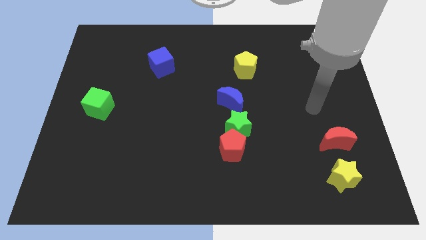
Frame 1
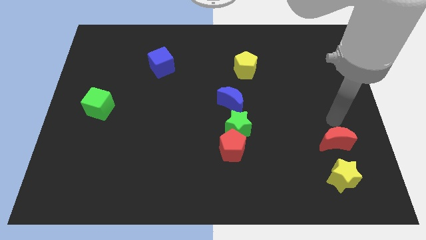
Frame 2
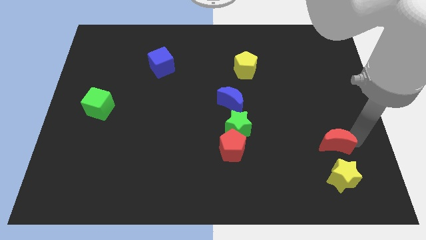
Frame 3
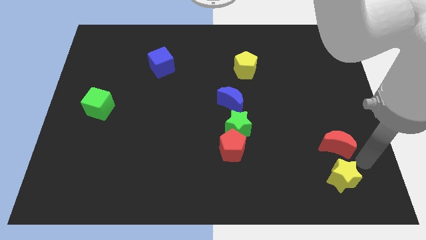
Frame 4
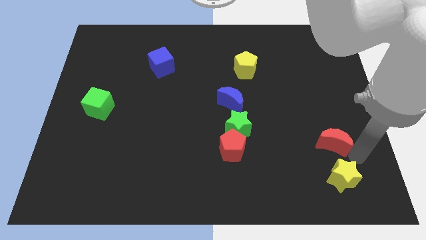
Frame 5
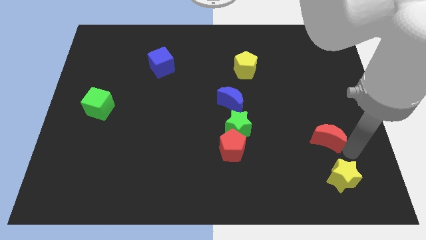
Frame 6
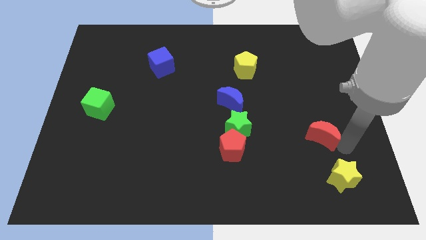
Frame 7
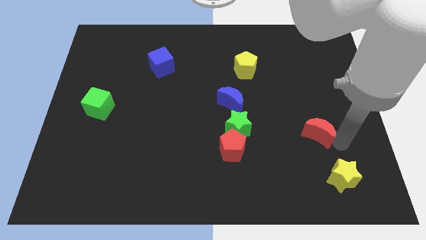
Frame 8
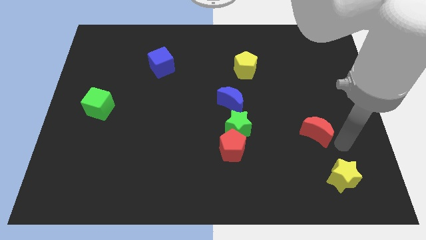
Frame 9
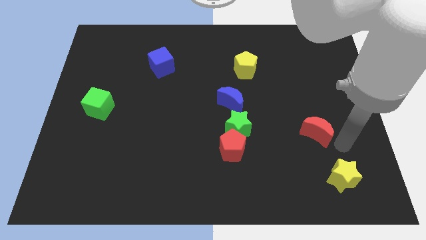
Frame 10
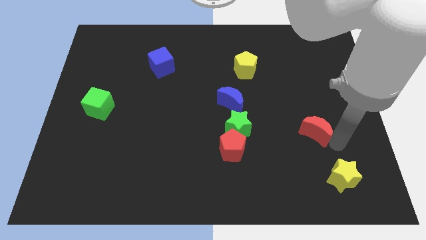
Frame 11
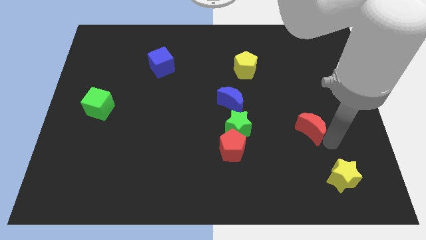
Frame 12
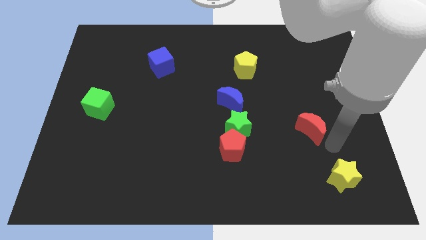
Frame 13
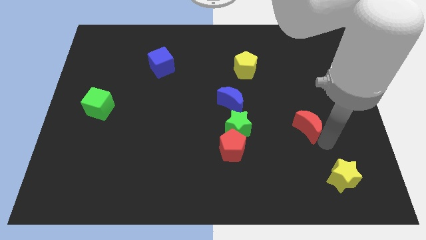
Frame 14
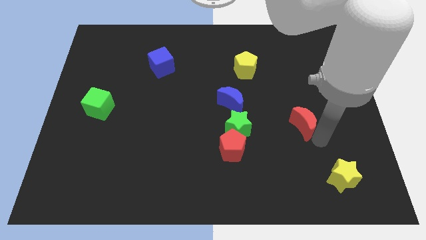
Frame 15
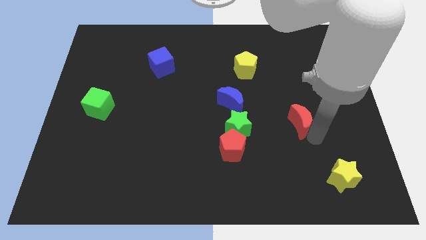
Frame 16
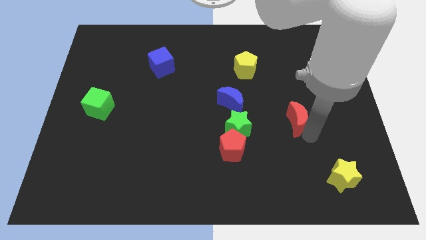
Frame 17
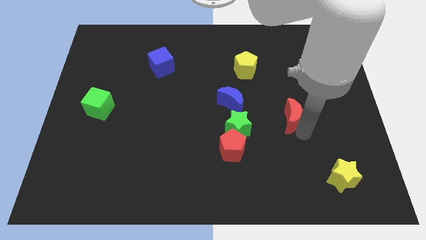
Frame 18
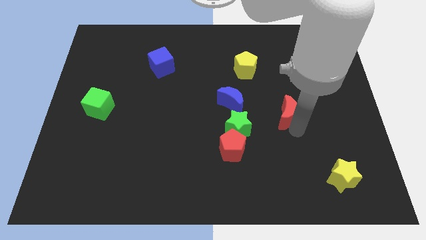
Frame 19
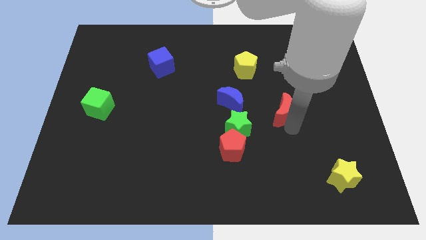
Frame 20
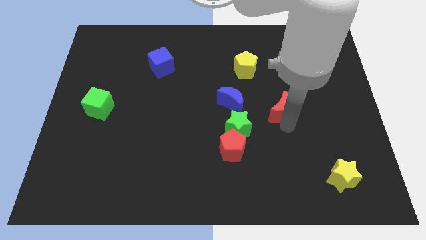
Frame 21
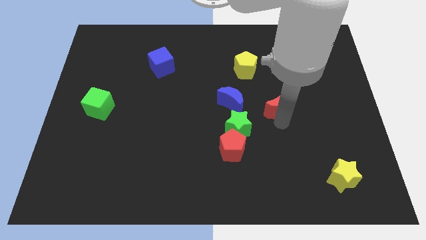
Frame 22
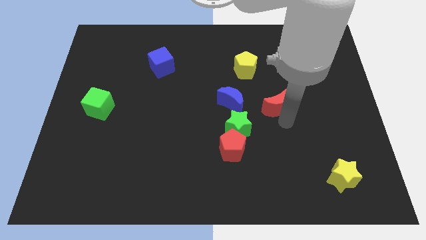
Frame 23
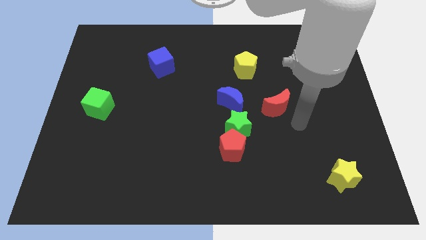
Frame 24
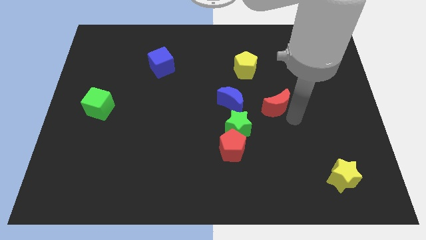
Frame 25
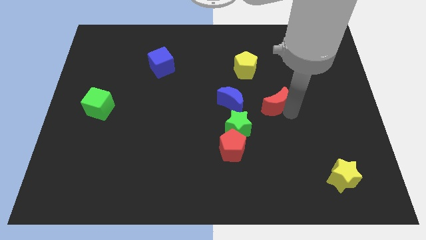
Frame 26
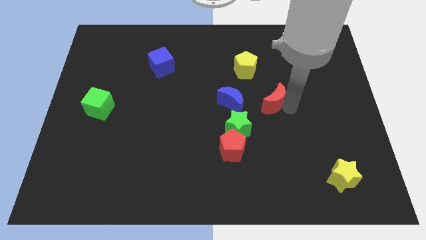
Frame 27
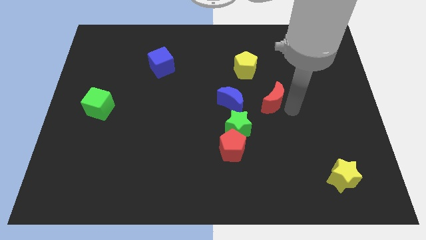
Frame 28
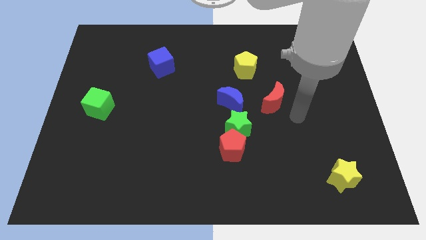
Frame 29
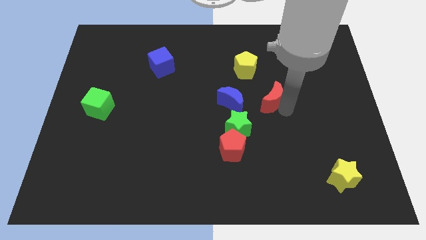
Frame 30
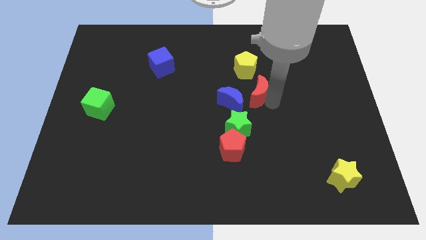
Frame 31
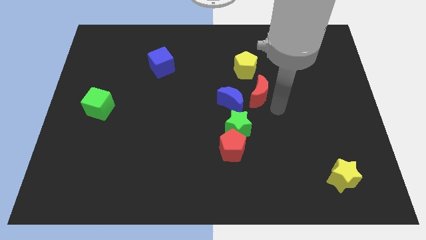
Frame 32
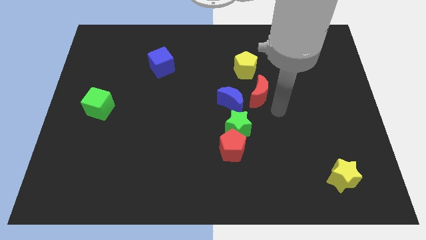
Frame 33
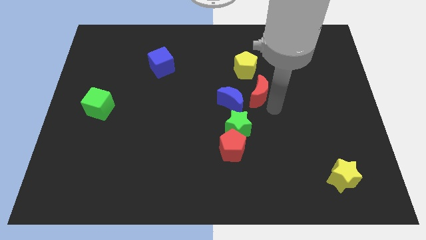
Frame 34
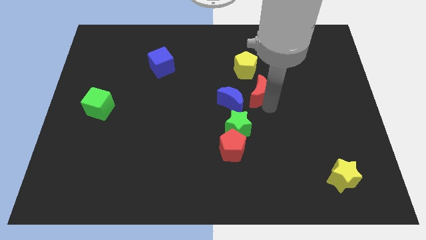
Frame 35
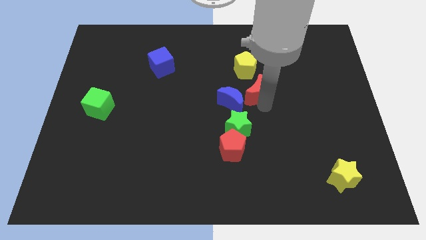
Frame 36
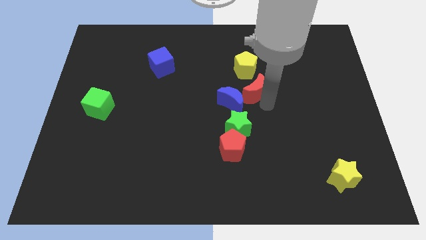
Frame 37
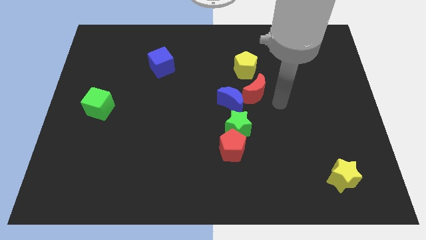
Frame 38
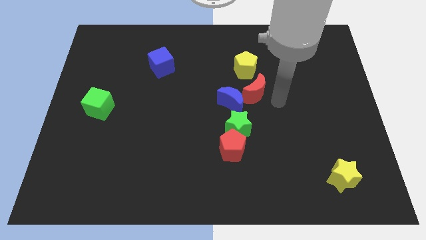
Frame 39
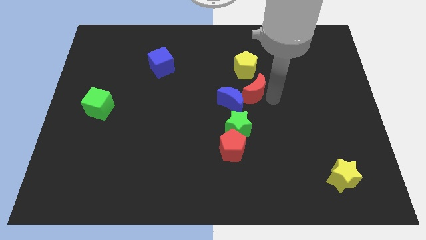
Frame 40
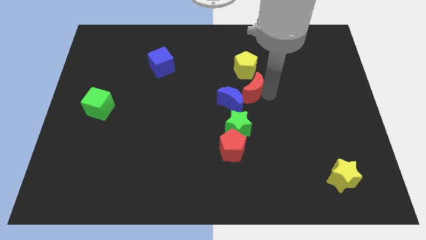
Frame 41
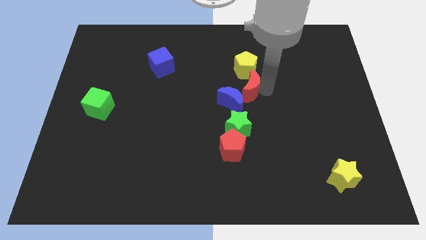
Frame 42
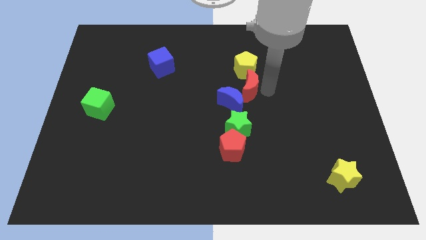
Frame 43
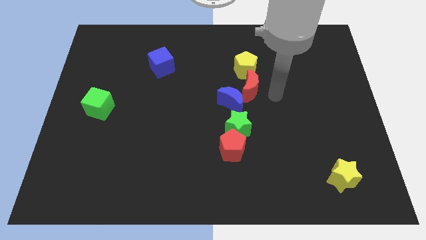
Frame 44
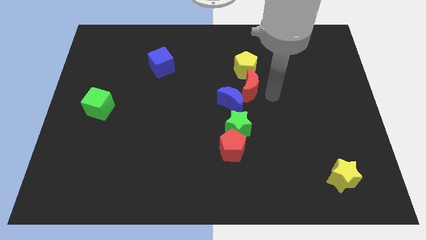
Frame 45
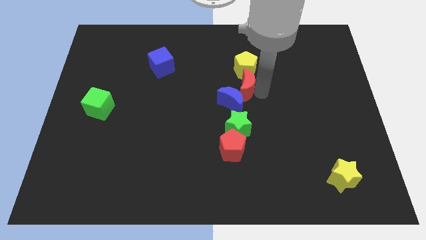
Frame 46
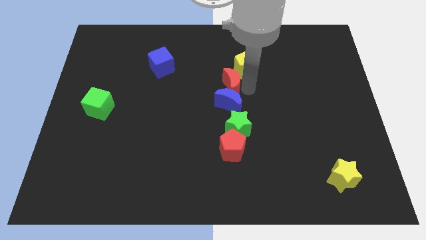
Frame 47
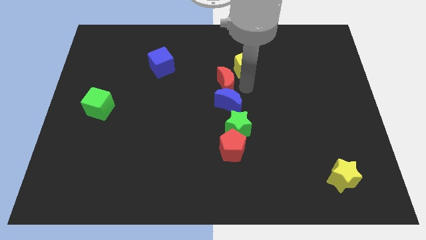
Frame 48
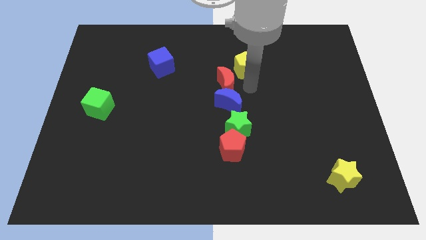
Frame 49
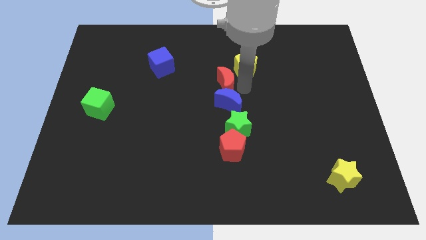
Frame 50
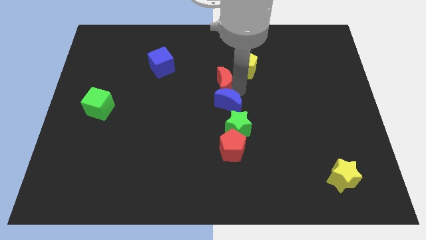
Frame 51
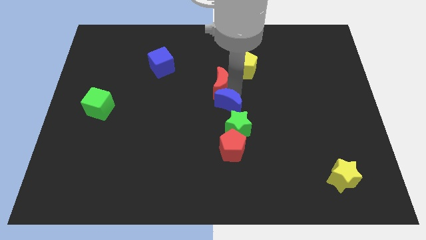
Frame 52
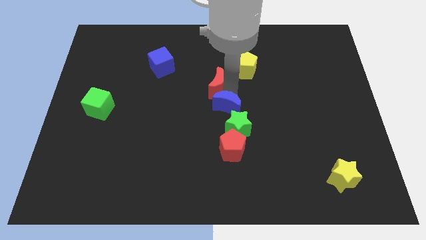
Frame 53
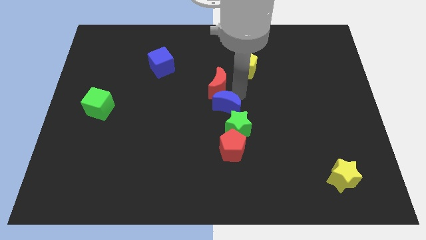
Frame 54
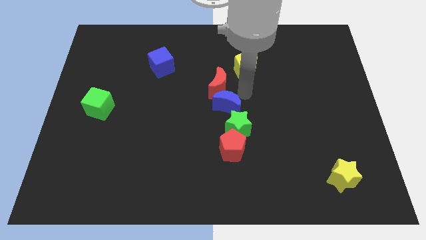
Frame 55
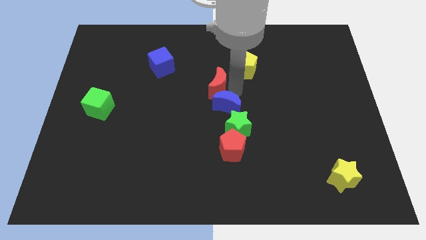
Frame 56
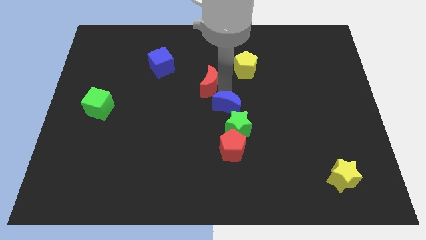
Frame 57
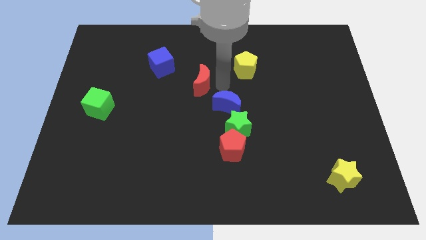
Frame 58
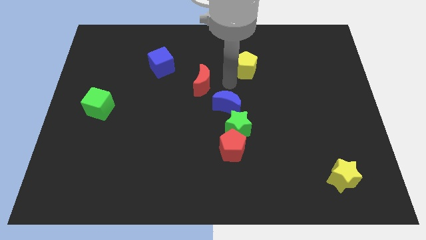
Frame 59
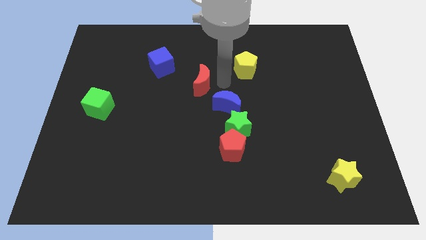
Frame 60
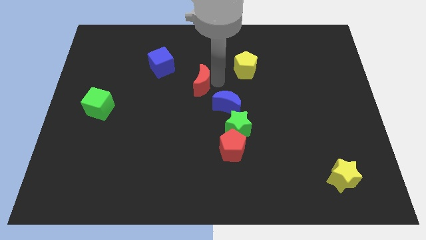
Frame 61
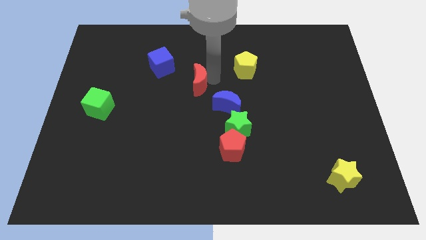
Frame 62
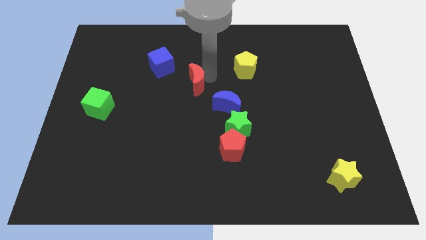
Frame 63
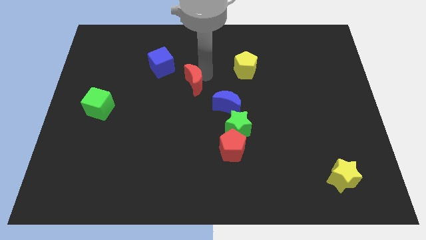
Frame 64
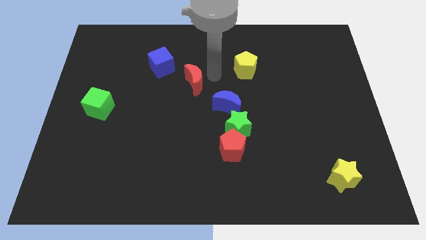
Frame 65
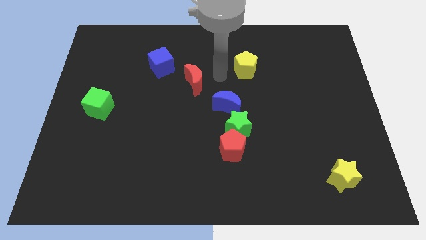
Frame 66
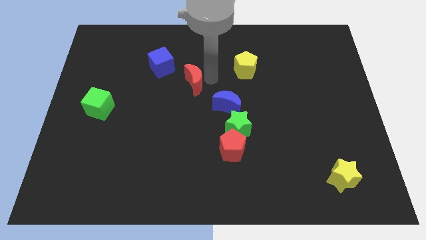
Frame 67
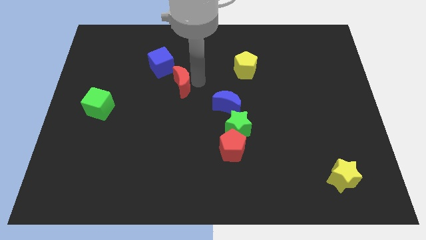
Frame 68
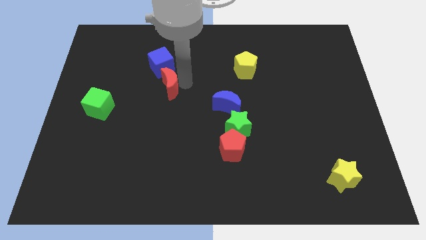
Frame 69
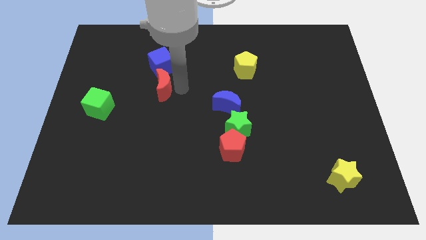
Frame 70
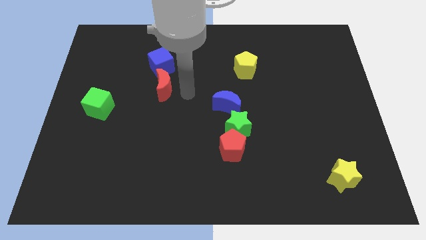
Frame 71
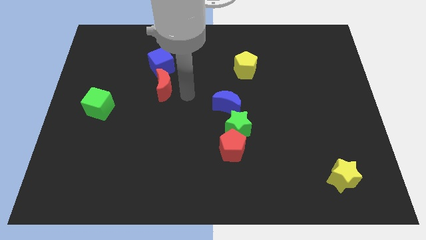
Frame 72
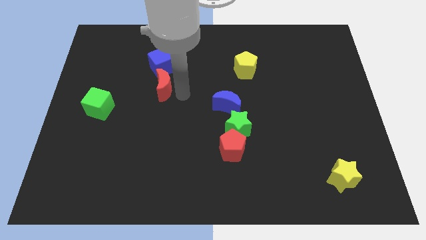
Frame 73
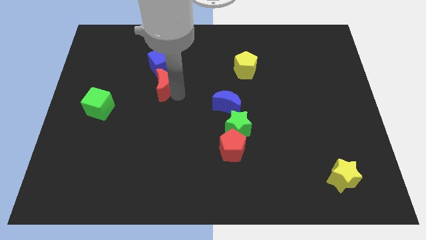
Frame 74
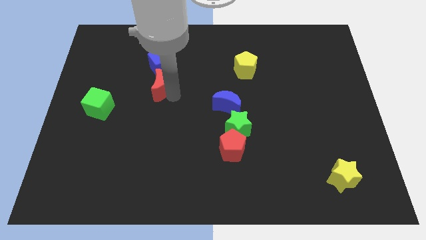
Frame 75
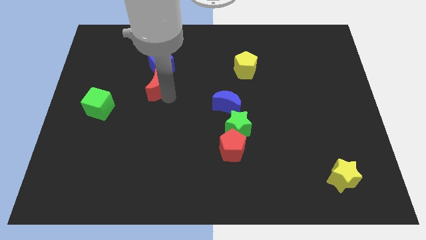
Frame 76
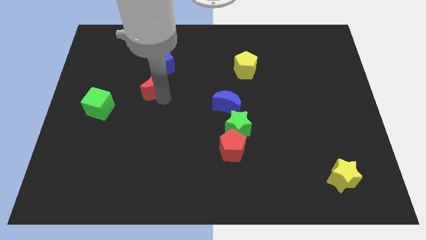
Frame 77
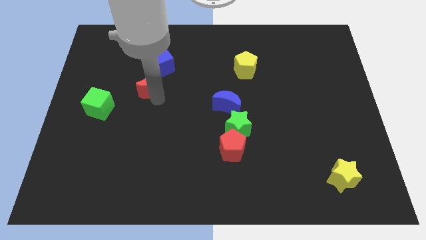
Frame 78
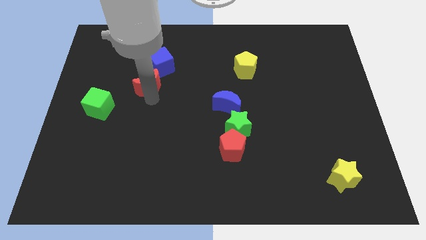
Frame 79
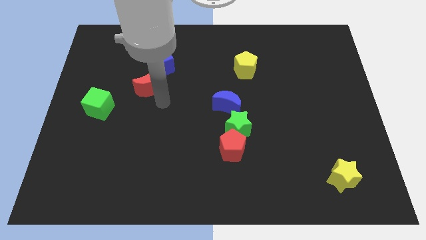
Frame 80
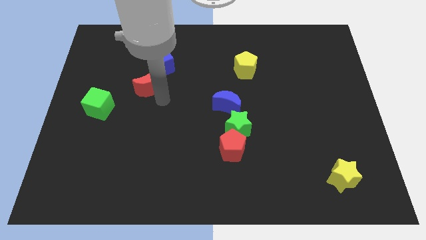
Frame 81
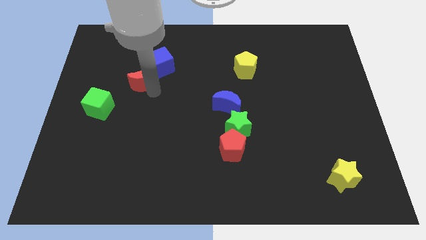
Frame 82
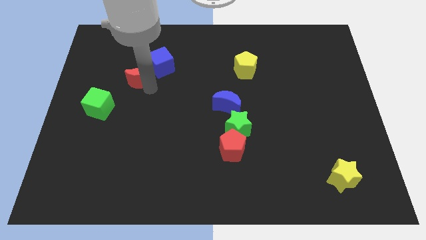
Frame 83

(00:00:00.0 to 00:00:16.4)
slide the red moon left of the blue cube
